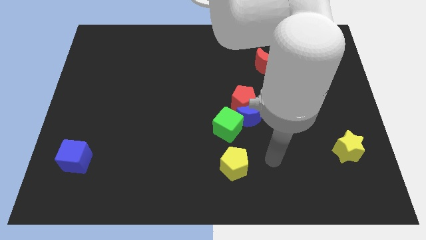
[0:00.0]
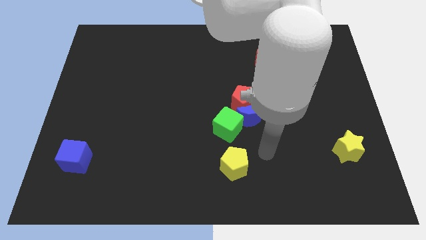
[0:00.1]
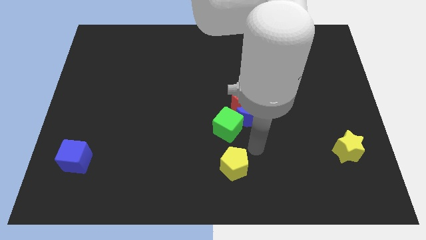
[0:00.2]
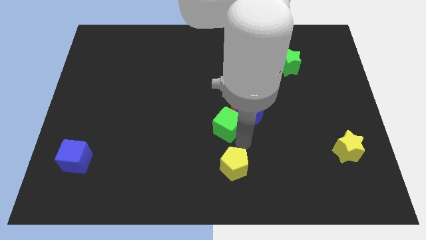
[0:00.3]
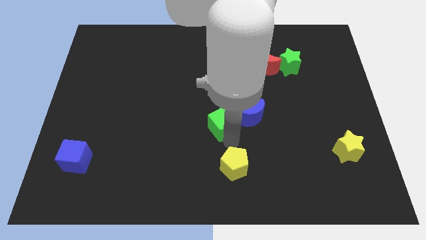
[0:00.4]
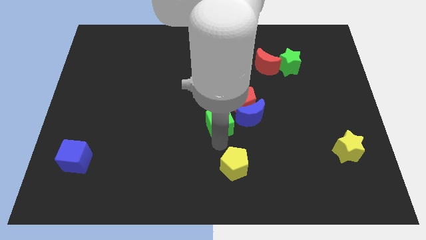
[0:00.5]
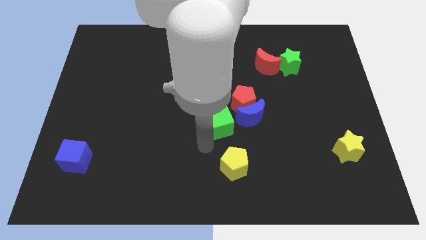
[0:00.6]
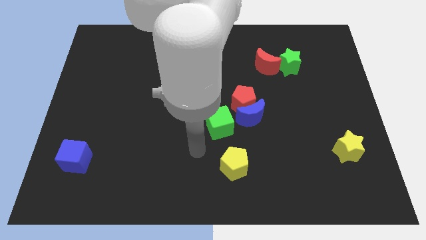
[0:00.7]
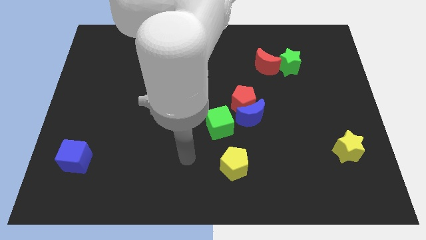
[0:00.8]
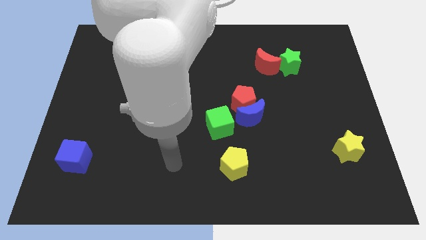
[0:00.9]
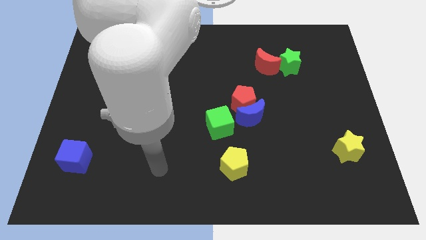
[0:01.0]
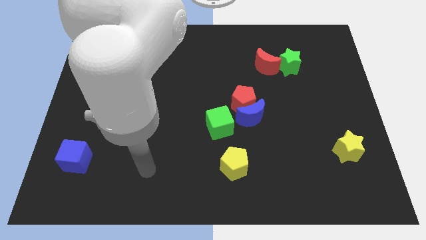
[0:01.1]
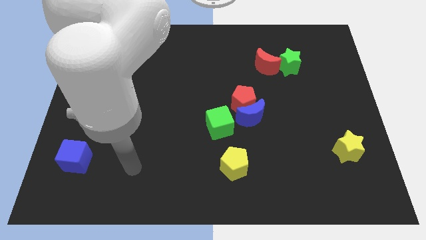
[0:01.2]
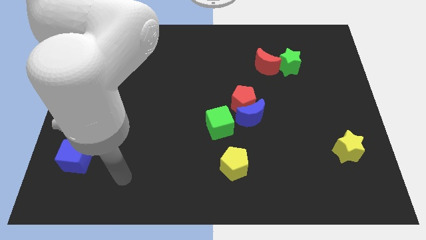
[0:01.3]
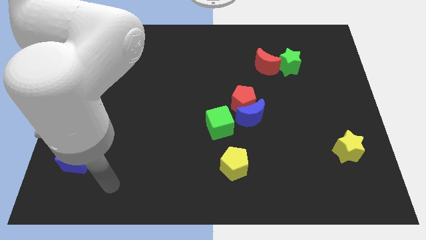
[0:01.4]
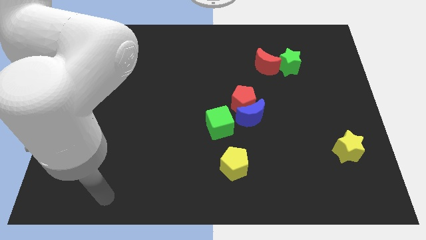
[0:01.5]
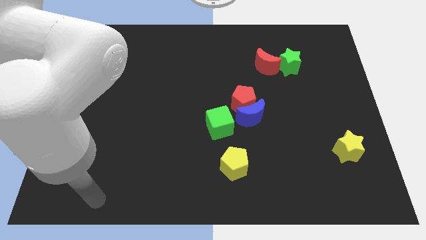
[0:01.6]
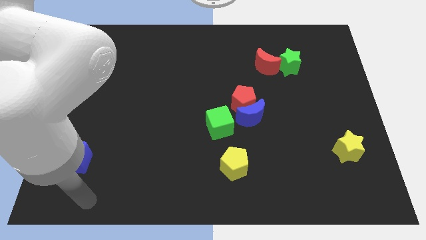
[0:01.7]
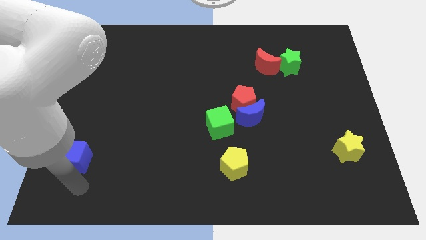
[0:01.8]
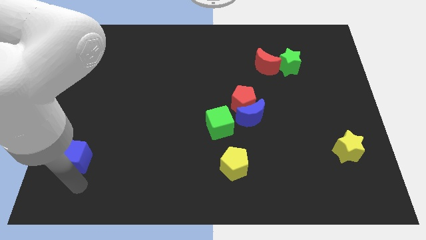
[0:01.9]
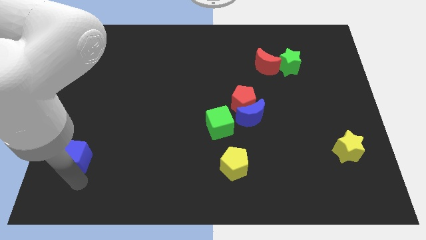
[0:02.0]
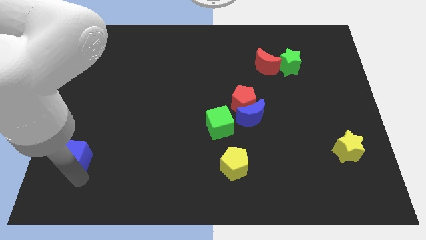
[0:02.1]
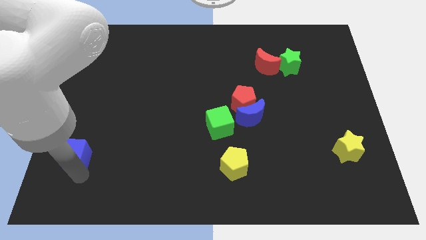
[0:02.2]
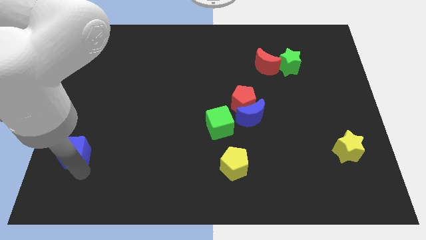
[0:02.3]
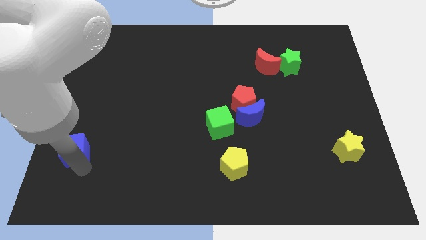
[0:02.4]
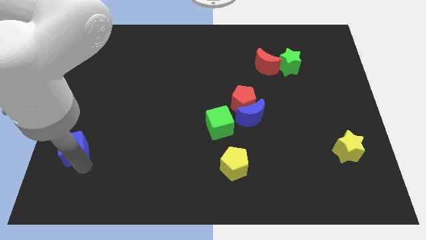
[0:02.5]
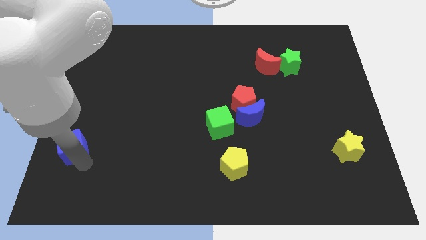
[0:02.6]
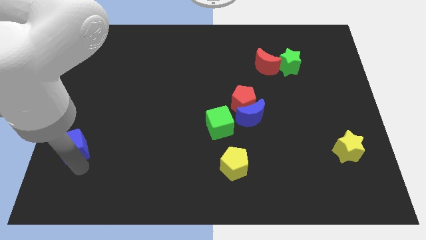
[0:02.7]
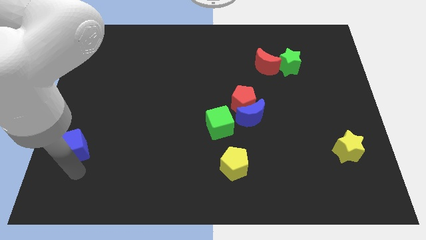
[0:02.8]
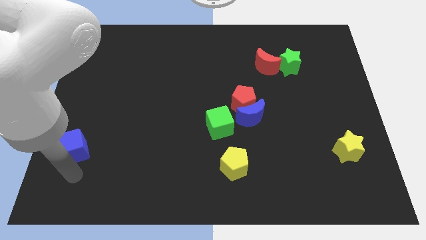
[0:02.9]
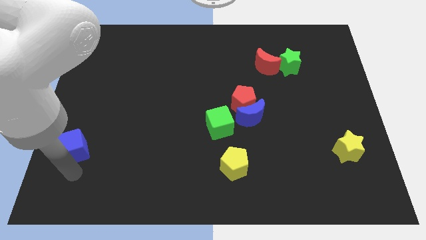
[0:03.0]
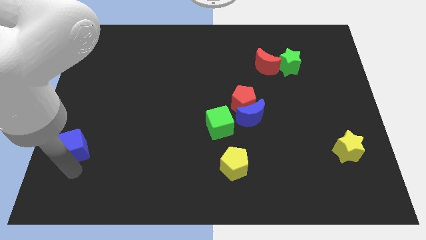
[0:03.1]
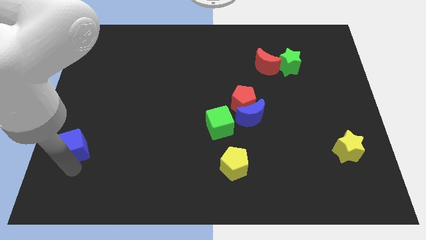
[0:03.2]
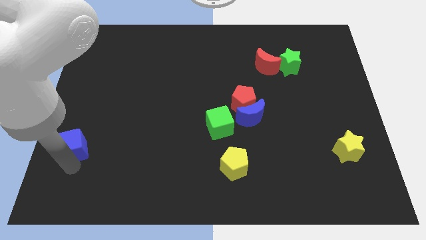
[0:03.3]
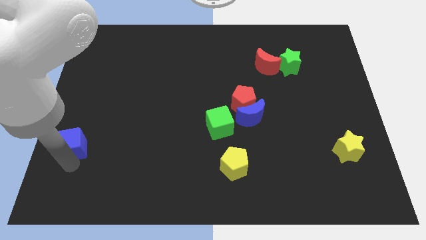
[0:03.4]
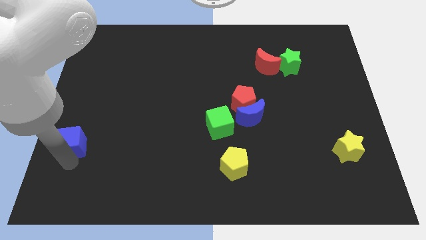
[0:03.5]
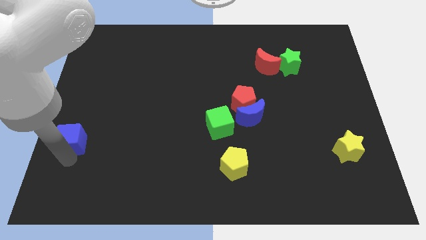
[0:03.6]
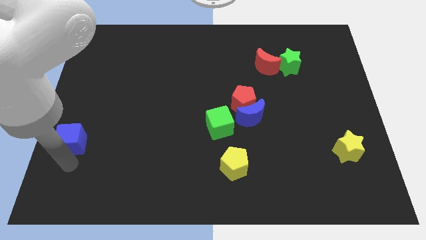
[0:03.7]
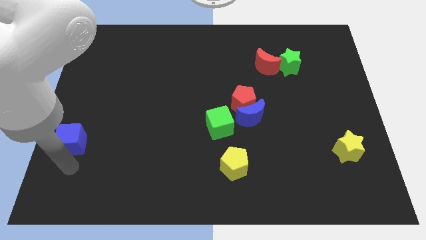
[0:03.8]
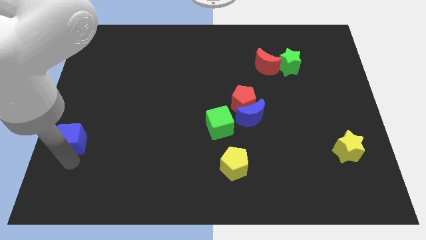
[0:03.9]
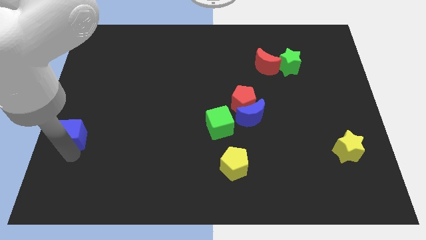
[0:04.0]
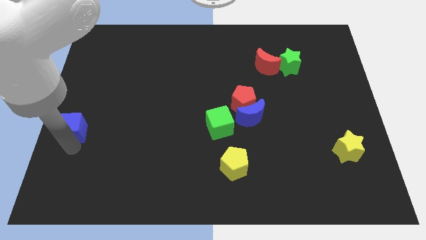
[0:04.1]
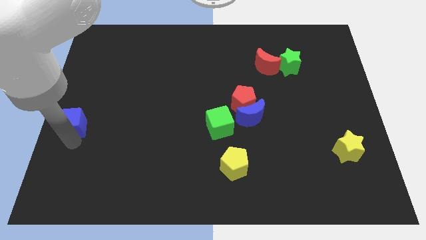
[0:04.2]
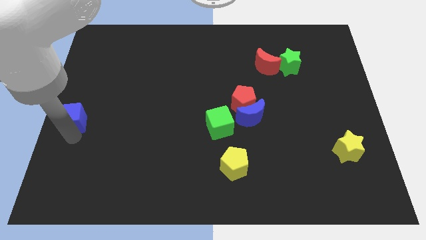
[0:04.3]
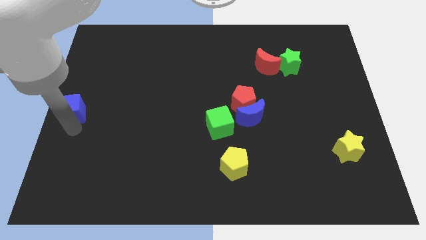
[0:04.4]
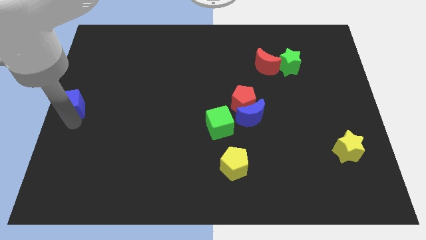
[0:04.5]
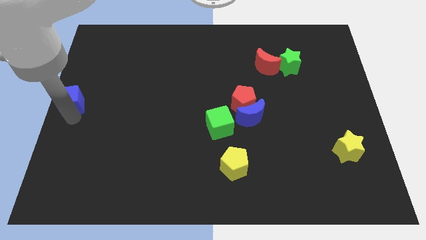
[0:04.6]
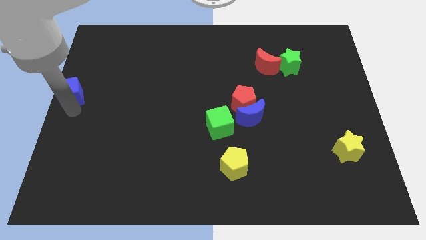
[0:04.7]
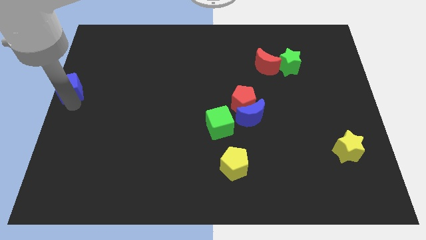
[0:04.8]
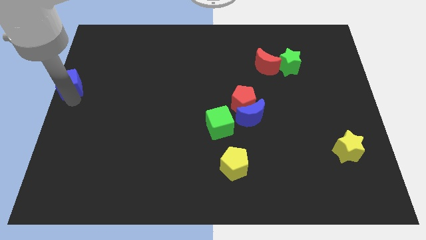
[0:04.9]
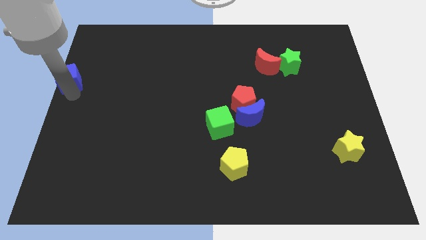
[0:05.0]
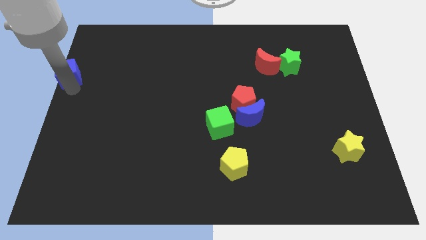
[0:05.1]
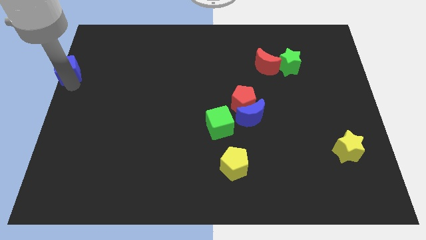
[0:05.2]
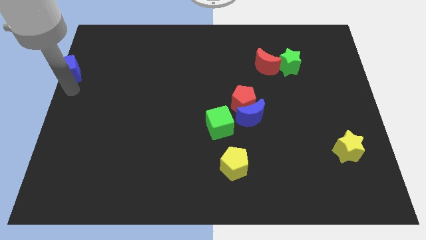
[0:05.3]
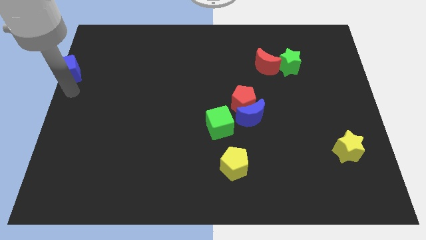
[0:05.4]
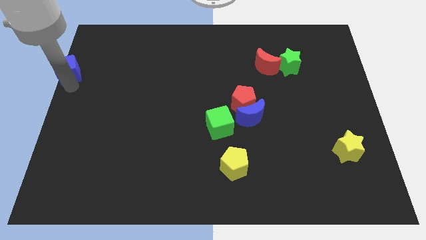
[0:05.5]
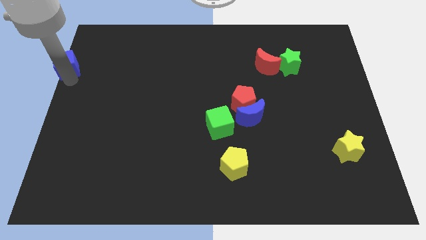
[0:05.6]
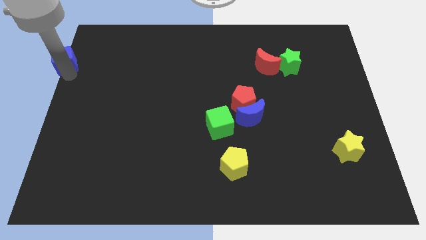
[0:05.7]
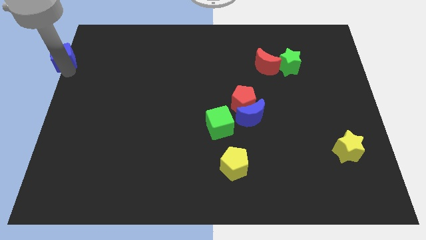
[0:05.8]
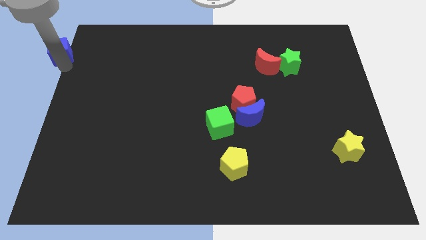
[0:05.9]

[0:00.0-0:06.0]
move the blue cube to the top left of the board

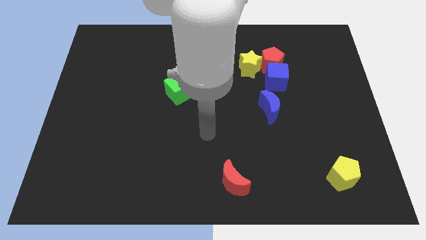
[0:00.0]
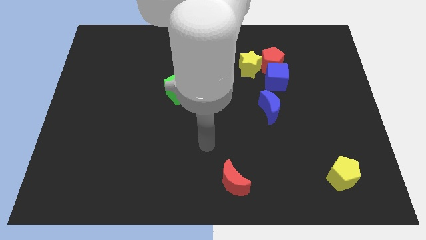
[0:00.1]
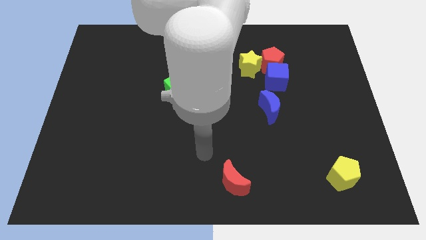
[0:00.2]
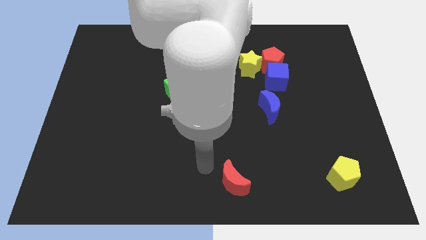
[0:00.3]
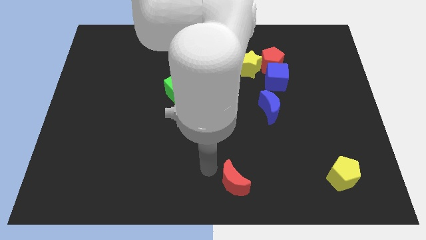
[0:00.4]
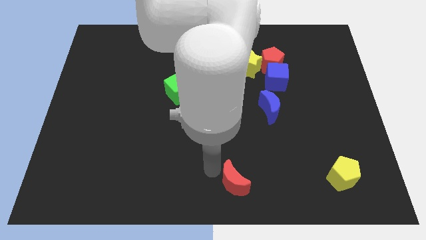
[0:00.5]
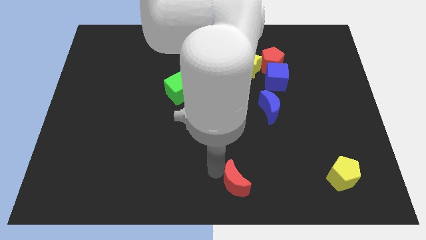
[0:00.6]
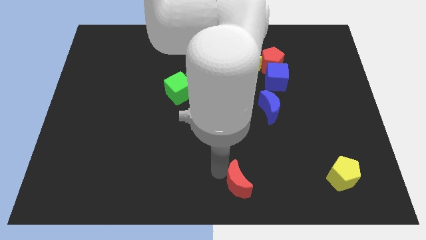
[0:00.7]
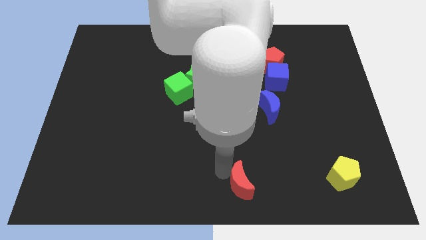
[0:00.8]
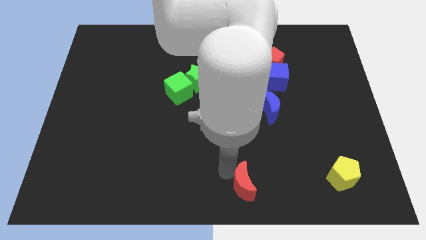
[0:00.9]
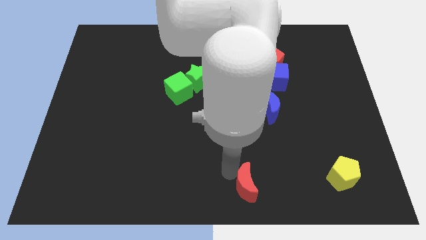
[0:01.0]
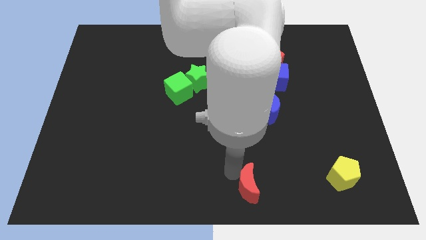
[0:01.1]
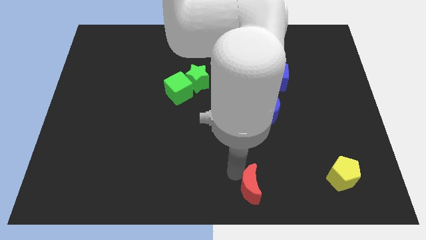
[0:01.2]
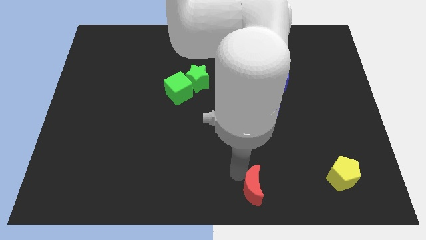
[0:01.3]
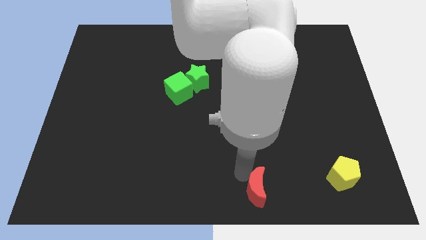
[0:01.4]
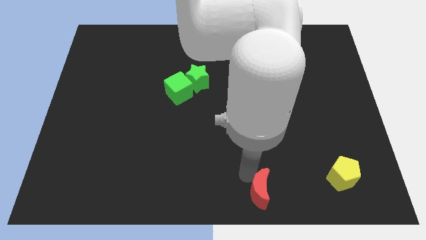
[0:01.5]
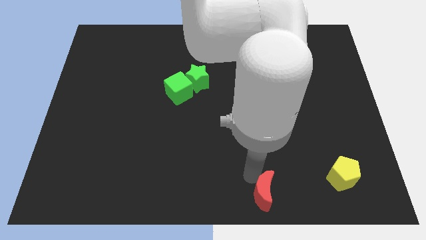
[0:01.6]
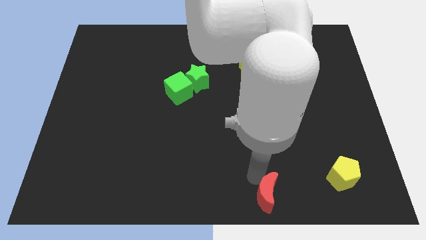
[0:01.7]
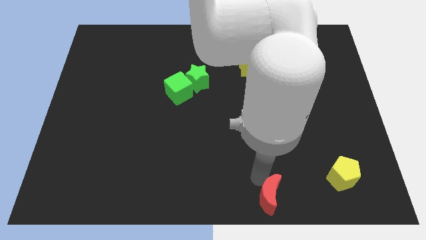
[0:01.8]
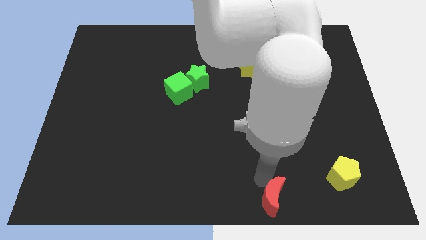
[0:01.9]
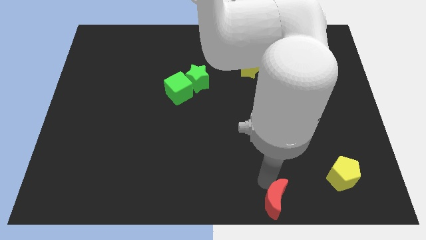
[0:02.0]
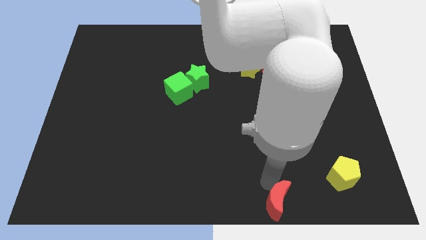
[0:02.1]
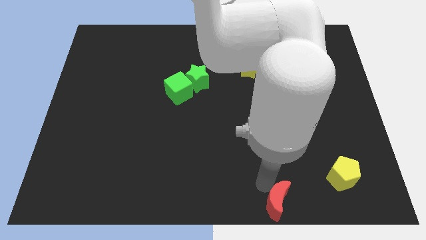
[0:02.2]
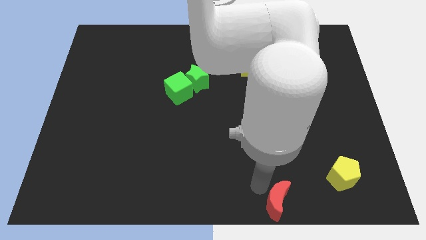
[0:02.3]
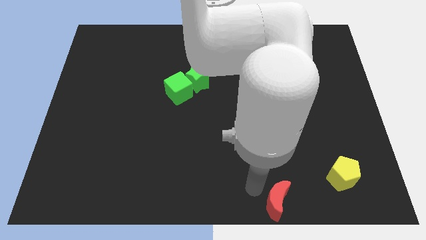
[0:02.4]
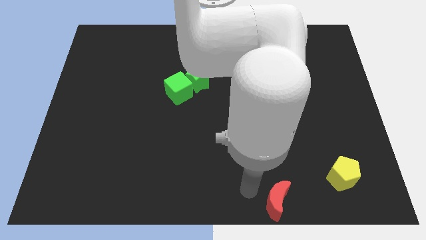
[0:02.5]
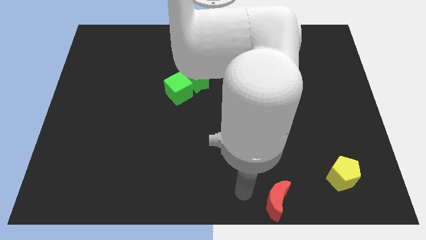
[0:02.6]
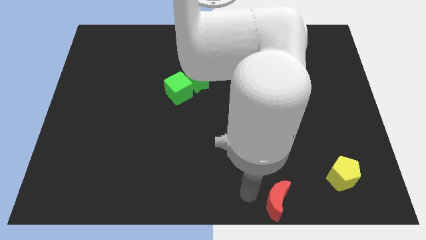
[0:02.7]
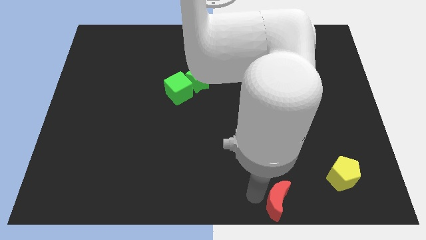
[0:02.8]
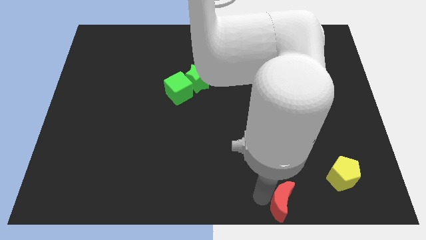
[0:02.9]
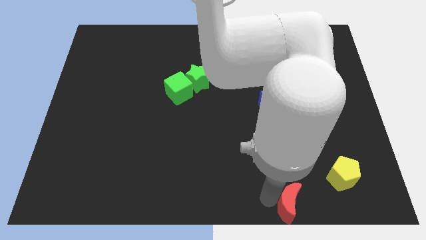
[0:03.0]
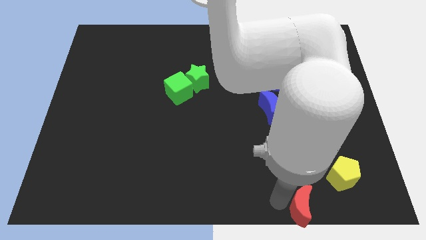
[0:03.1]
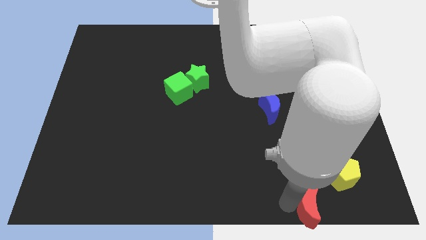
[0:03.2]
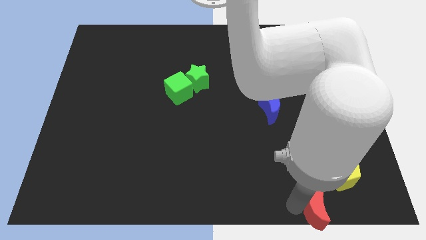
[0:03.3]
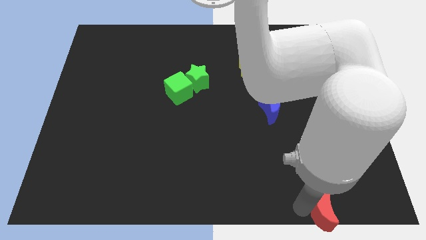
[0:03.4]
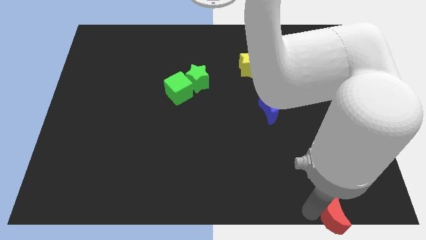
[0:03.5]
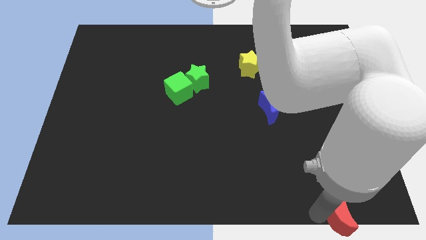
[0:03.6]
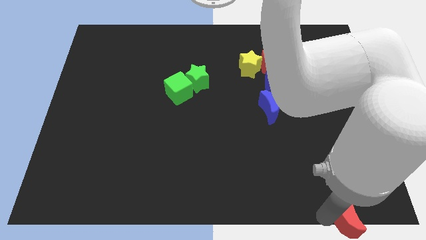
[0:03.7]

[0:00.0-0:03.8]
push the red moon to the bottom right of the board
